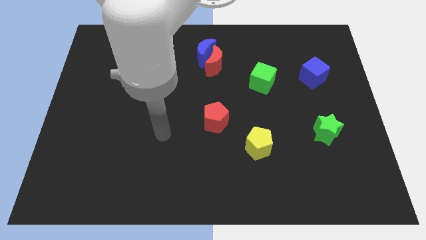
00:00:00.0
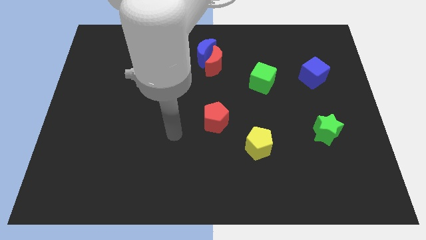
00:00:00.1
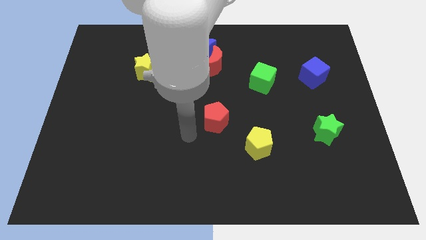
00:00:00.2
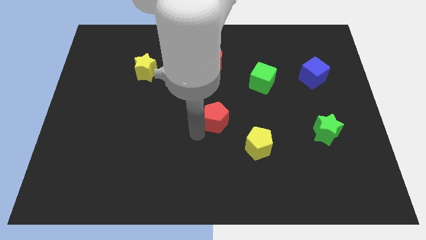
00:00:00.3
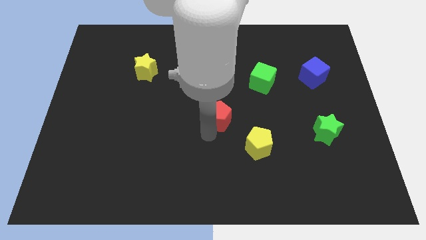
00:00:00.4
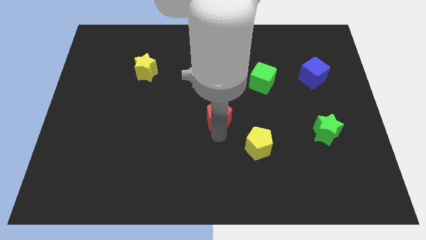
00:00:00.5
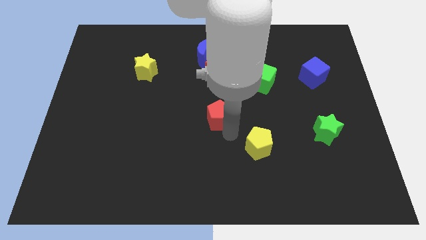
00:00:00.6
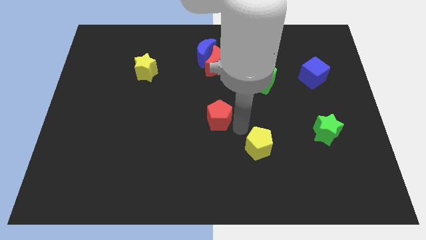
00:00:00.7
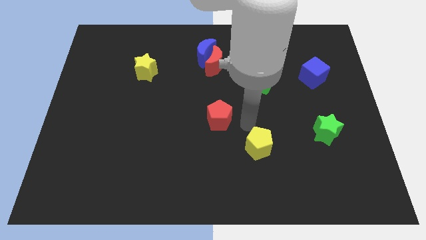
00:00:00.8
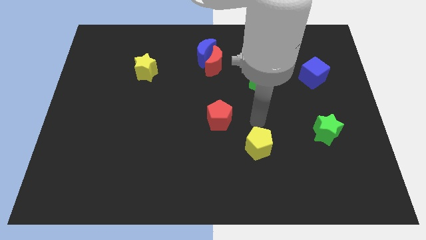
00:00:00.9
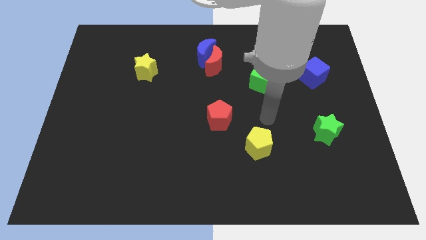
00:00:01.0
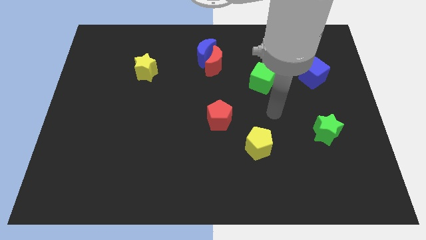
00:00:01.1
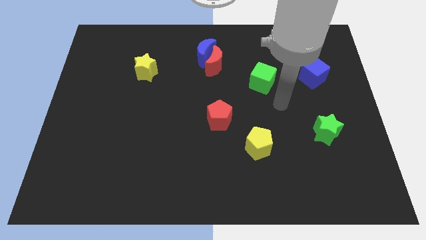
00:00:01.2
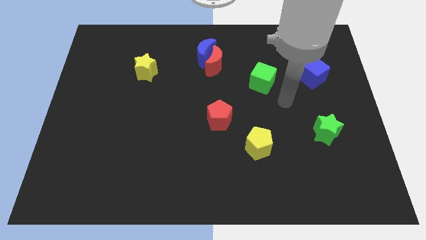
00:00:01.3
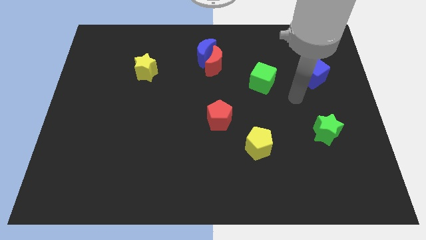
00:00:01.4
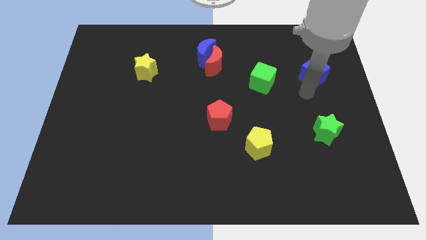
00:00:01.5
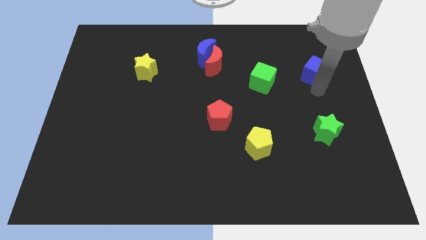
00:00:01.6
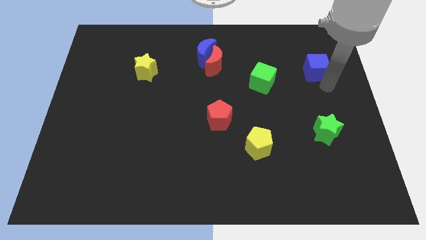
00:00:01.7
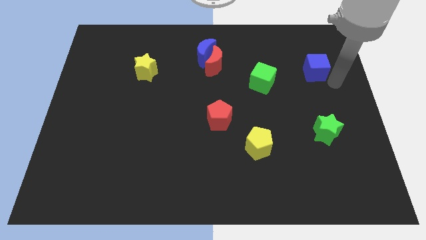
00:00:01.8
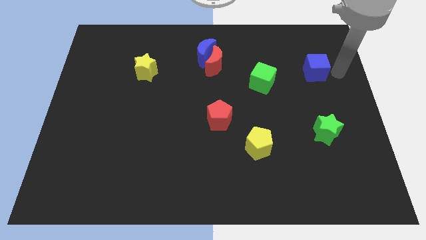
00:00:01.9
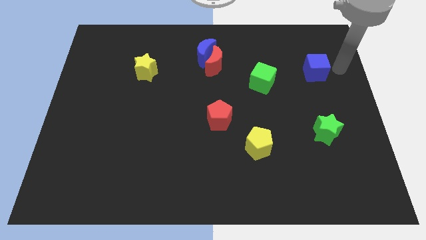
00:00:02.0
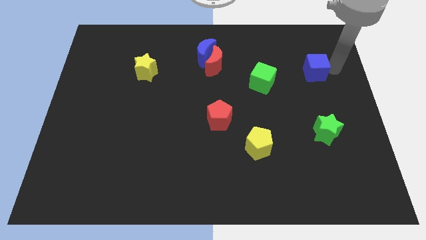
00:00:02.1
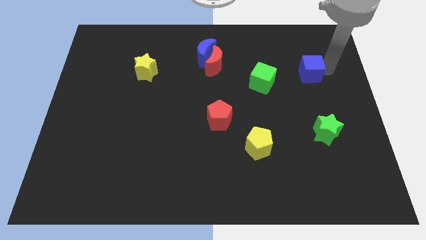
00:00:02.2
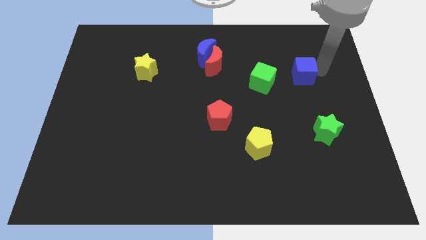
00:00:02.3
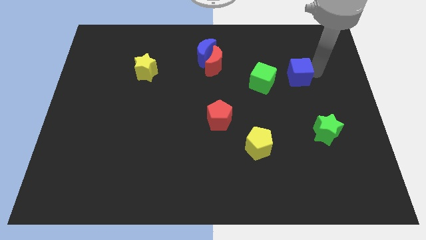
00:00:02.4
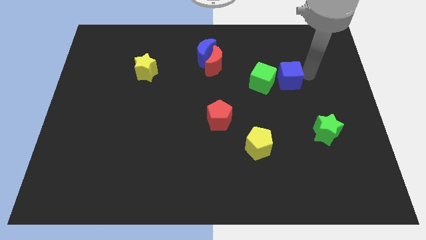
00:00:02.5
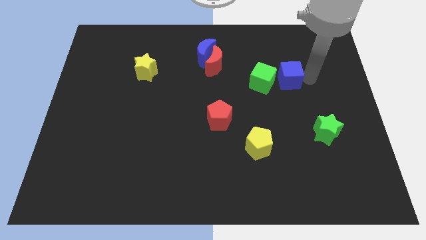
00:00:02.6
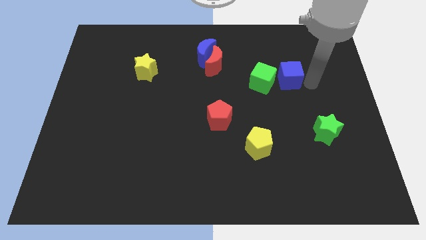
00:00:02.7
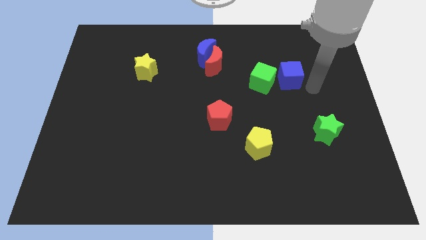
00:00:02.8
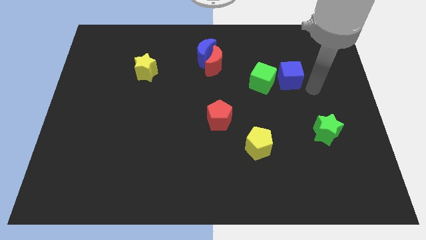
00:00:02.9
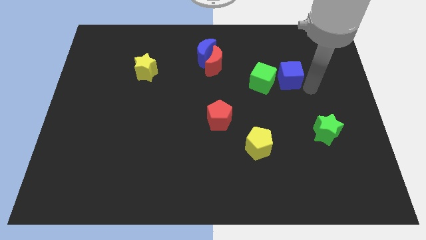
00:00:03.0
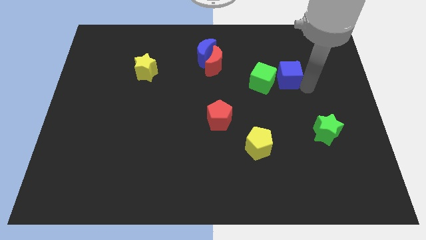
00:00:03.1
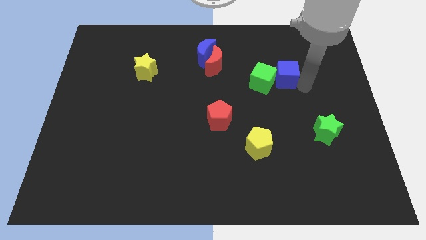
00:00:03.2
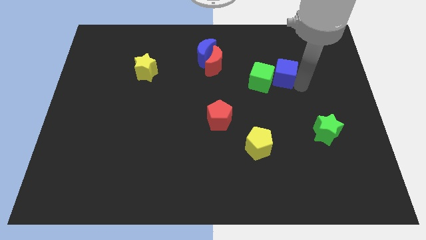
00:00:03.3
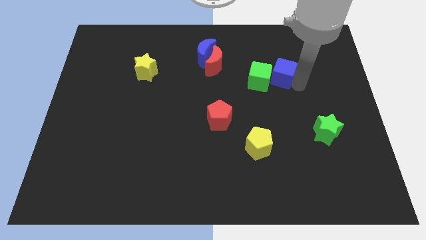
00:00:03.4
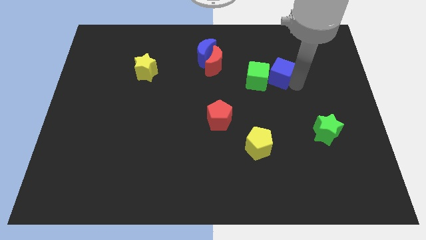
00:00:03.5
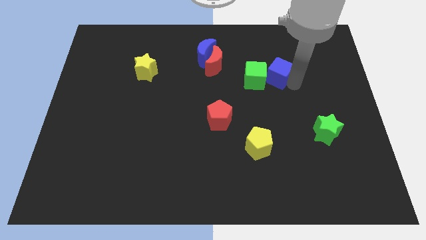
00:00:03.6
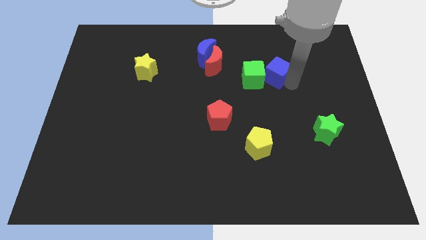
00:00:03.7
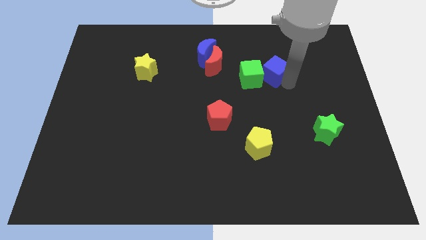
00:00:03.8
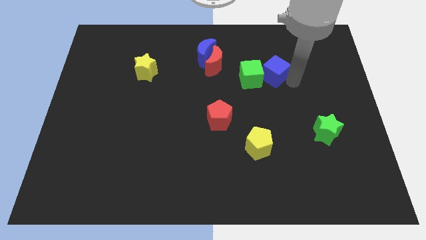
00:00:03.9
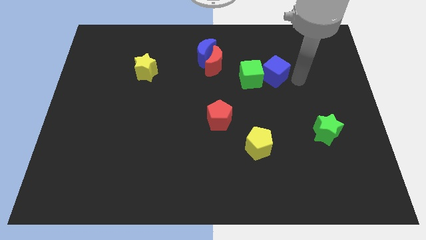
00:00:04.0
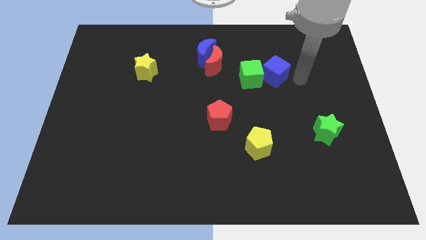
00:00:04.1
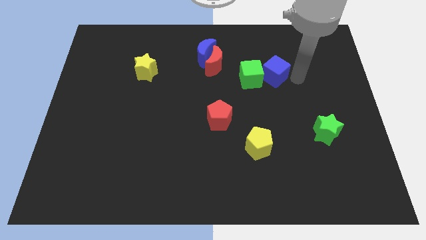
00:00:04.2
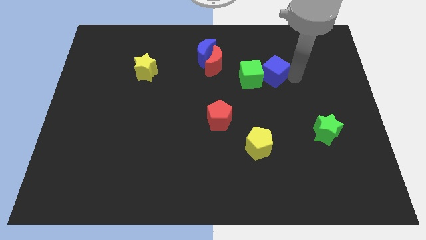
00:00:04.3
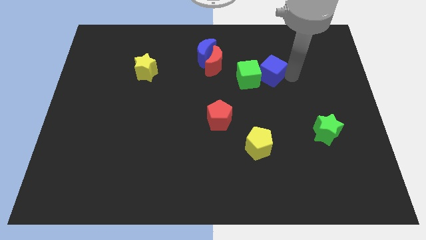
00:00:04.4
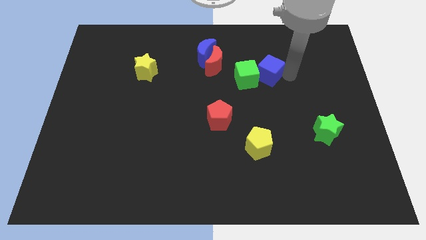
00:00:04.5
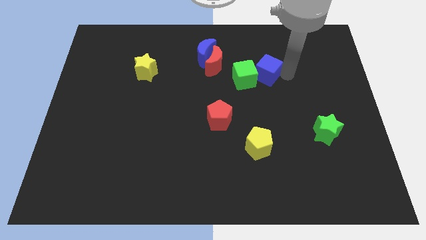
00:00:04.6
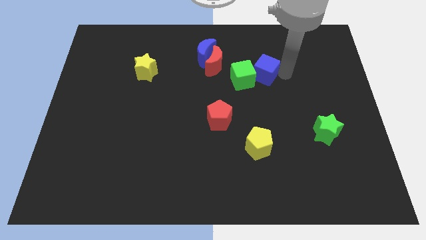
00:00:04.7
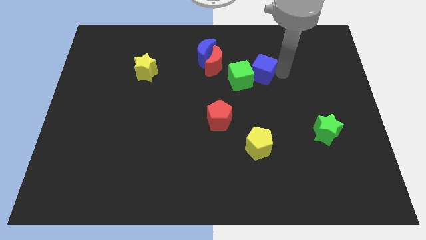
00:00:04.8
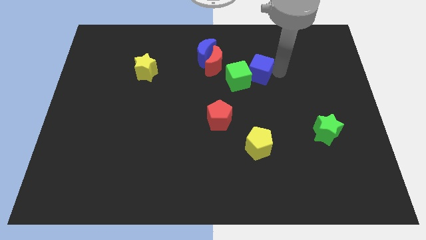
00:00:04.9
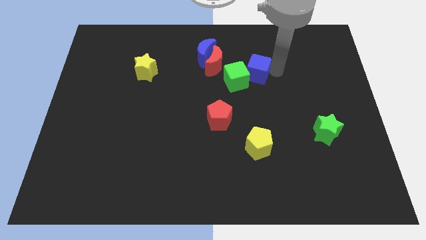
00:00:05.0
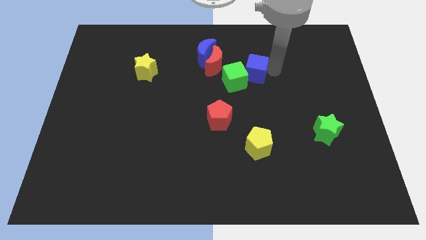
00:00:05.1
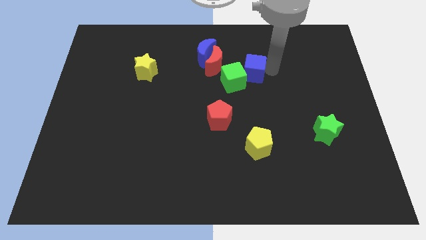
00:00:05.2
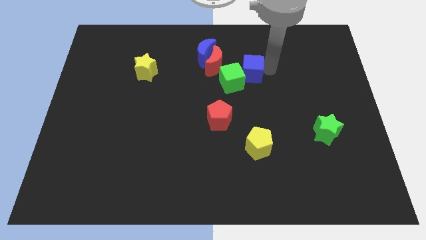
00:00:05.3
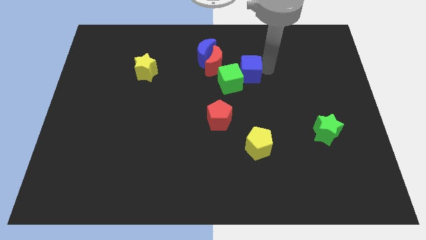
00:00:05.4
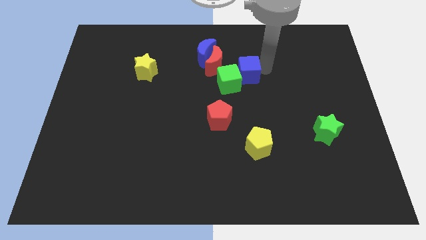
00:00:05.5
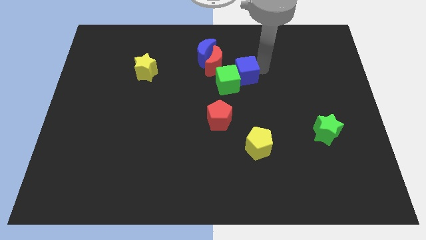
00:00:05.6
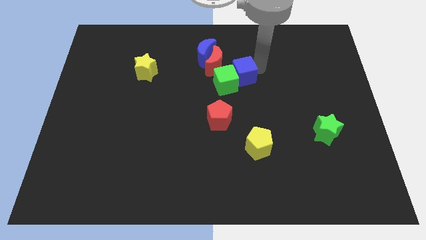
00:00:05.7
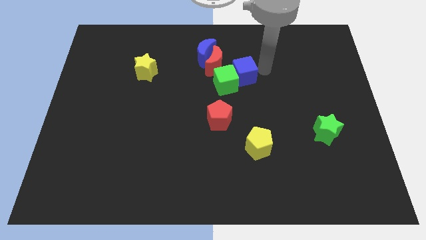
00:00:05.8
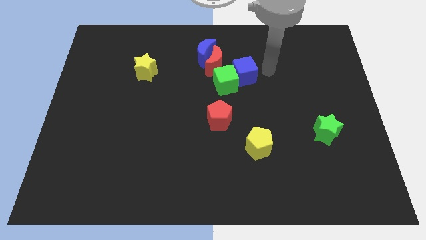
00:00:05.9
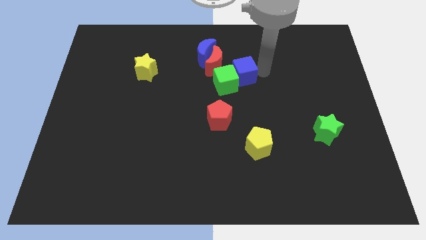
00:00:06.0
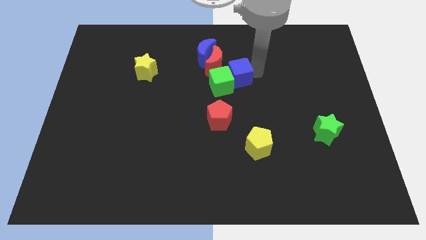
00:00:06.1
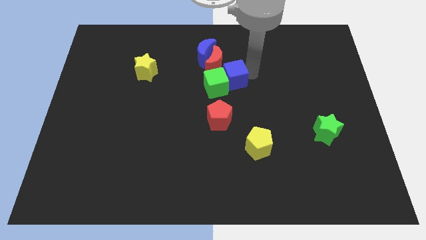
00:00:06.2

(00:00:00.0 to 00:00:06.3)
slide the blue cube left

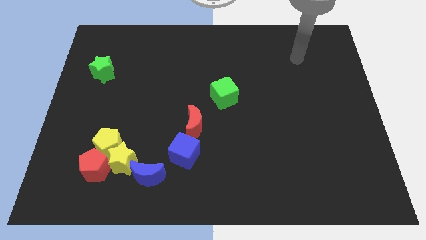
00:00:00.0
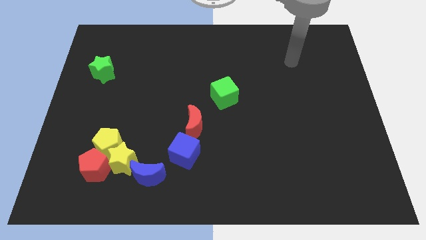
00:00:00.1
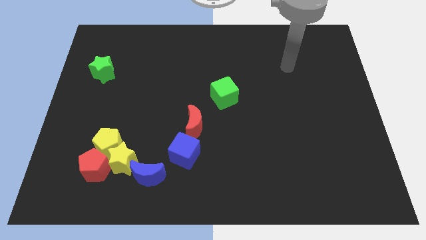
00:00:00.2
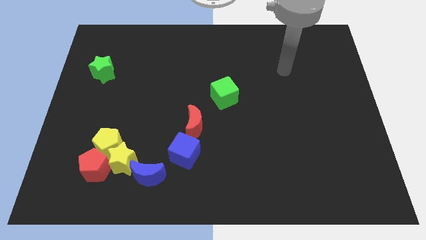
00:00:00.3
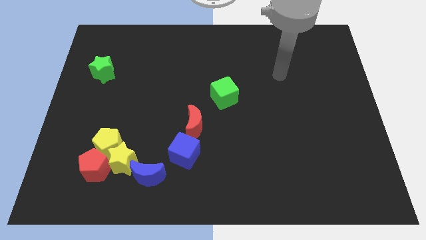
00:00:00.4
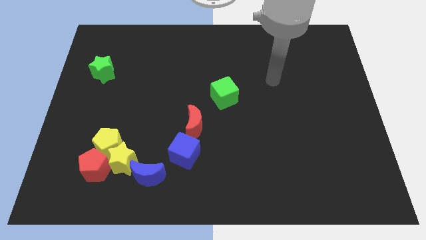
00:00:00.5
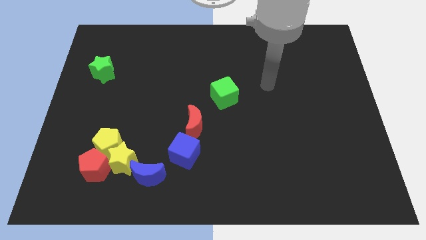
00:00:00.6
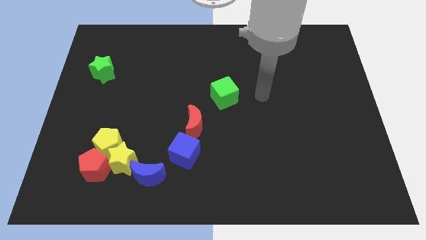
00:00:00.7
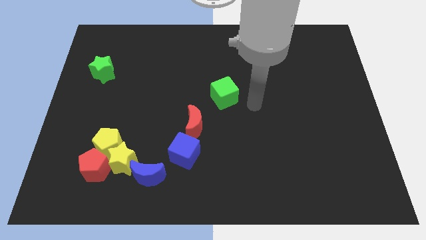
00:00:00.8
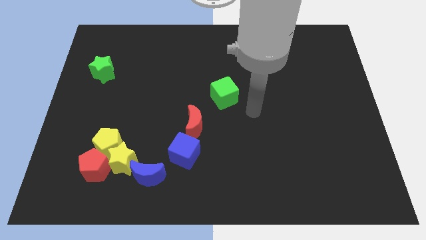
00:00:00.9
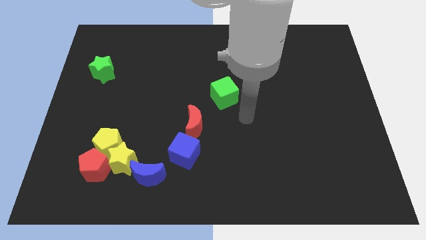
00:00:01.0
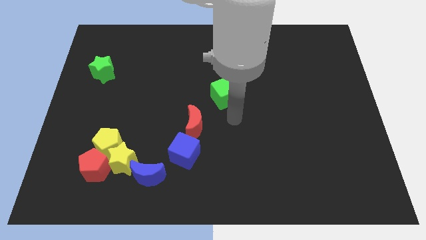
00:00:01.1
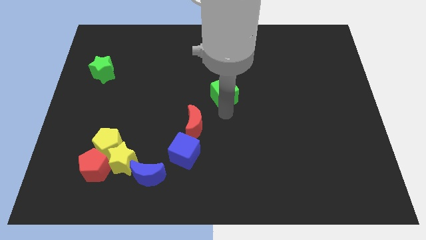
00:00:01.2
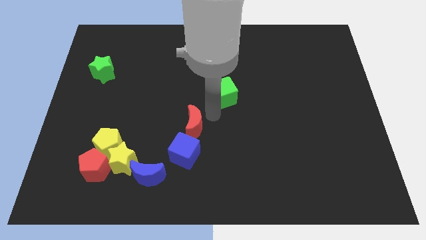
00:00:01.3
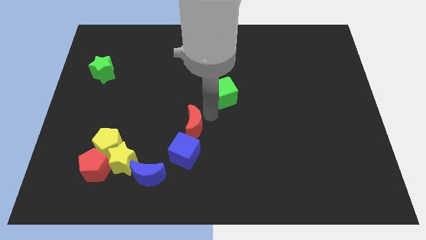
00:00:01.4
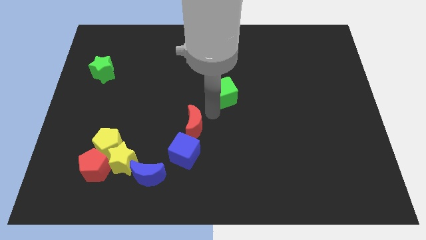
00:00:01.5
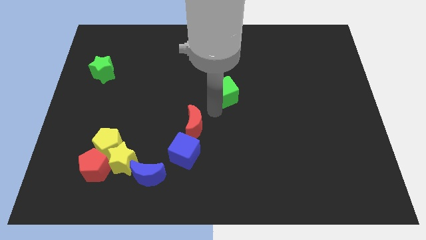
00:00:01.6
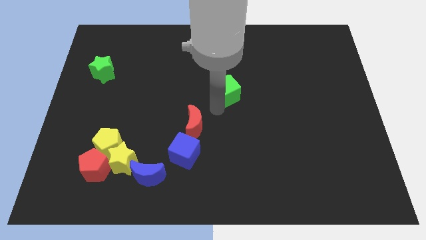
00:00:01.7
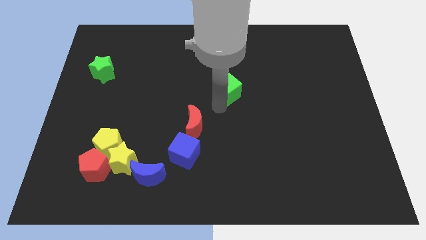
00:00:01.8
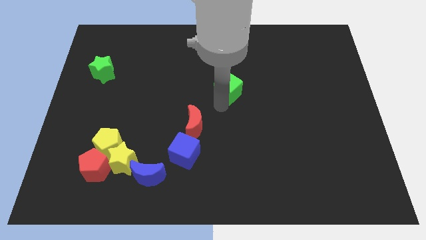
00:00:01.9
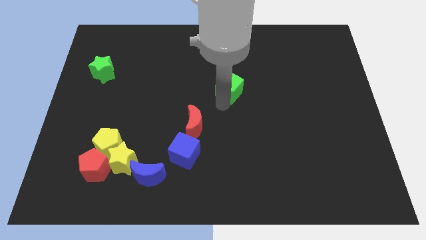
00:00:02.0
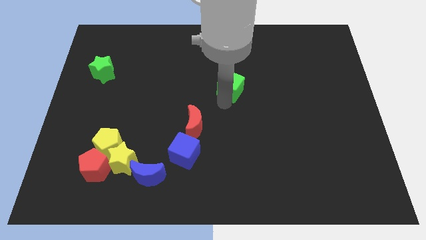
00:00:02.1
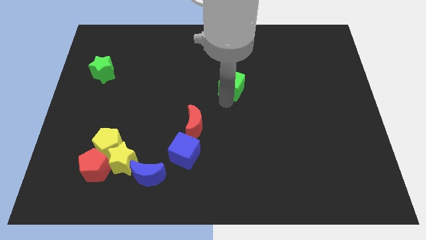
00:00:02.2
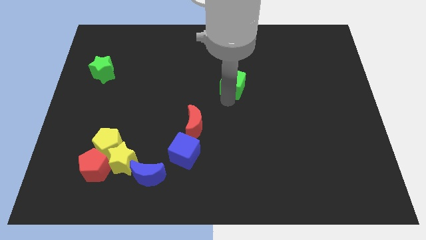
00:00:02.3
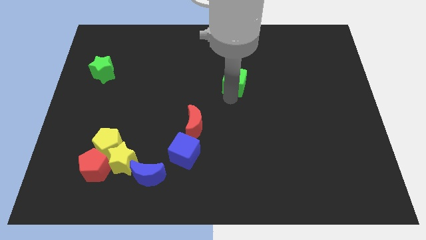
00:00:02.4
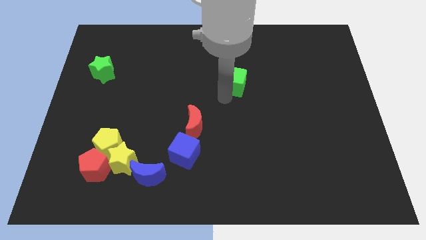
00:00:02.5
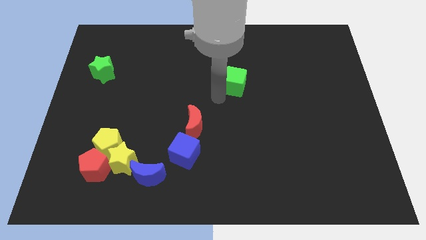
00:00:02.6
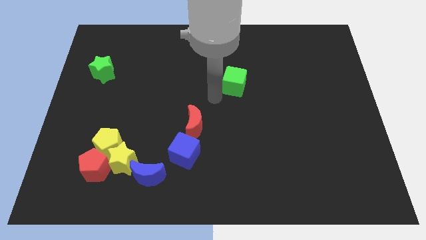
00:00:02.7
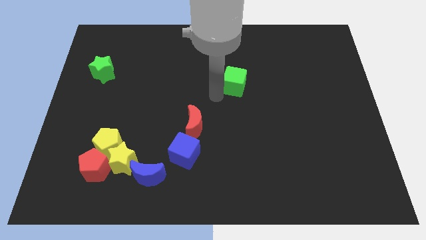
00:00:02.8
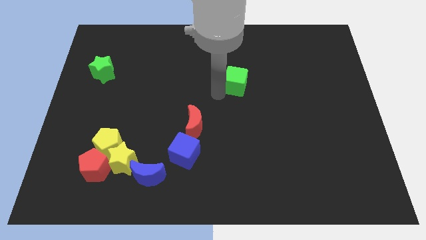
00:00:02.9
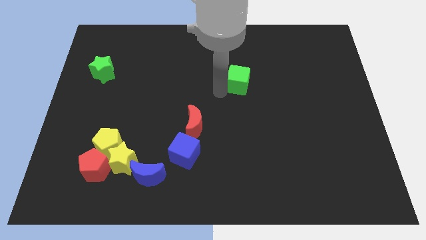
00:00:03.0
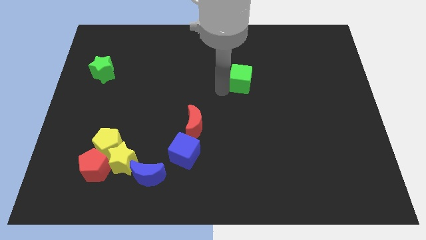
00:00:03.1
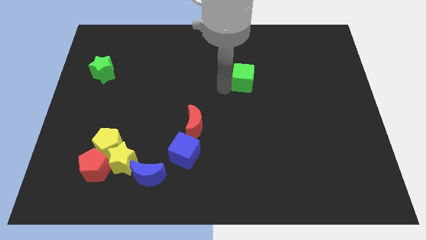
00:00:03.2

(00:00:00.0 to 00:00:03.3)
slightly move the green cube diagonally upwards and right
